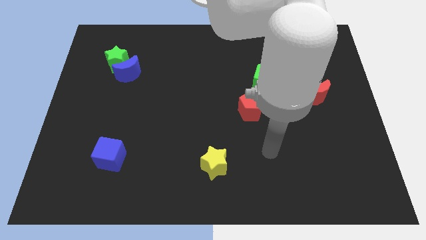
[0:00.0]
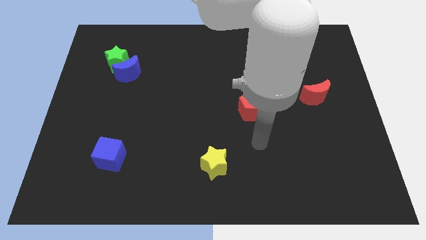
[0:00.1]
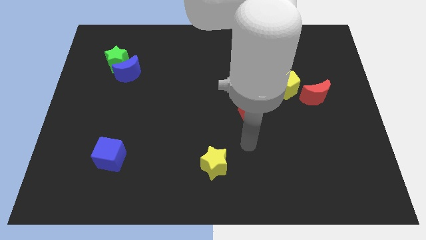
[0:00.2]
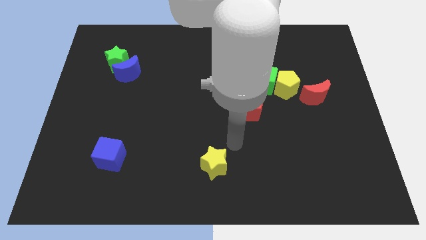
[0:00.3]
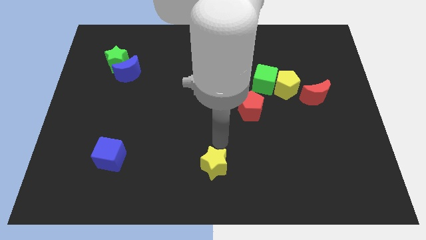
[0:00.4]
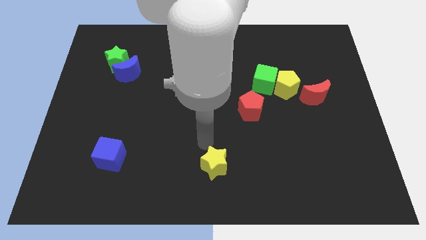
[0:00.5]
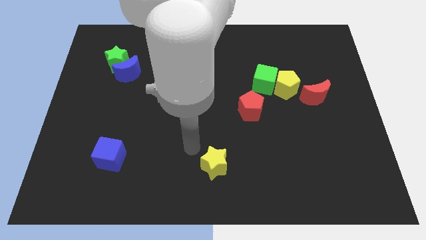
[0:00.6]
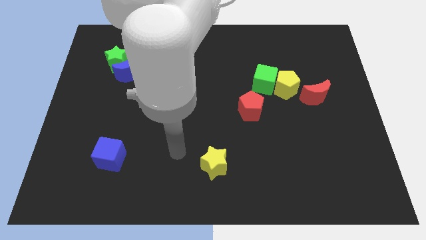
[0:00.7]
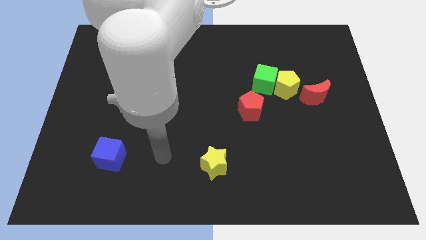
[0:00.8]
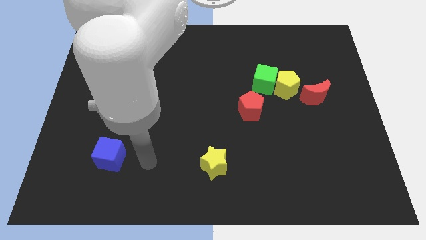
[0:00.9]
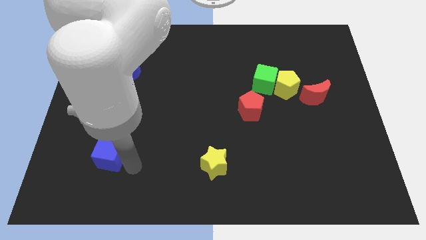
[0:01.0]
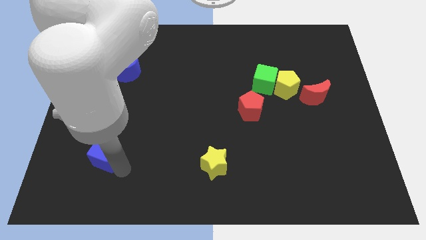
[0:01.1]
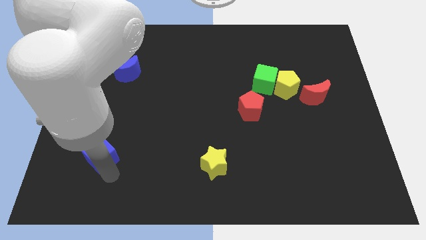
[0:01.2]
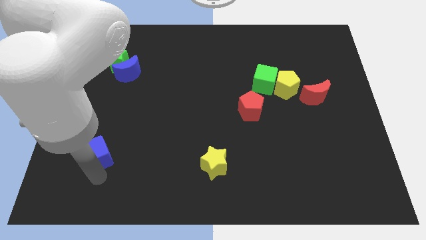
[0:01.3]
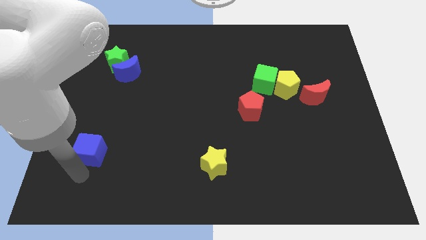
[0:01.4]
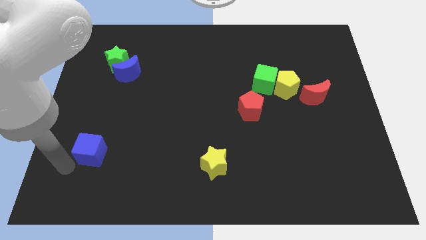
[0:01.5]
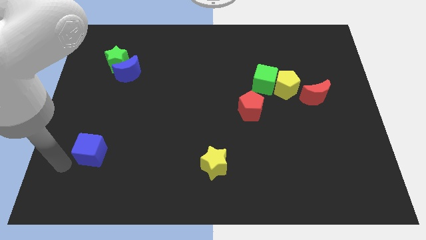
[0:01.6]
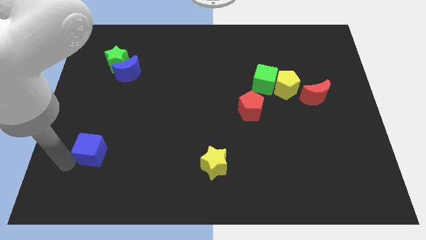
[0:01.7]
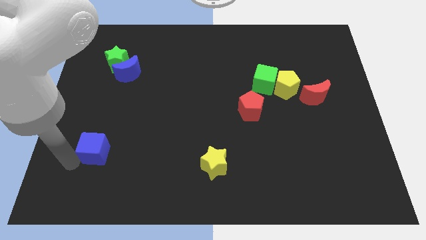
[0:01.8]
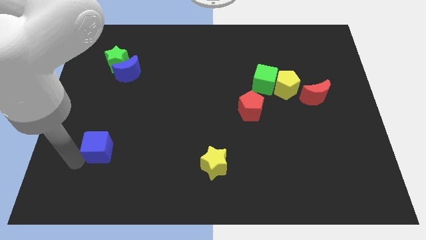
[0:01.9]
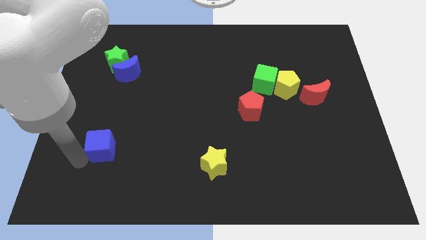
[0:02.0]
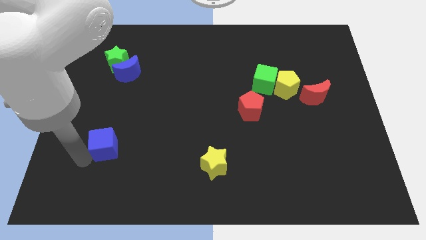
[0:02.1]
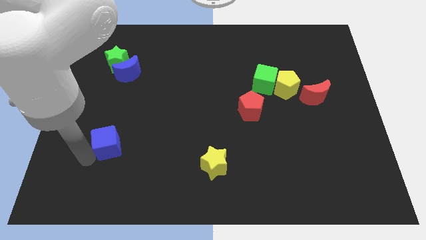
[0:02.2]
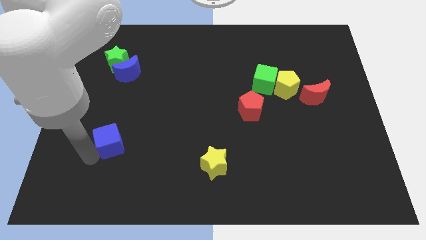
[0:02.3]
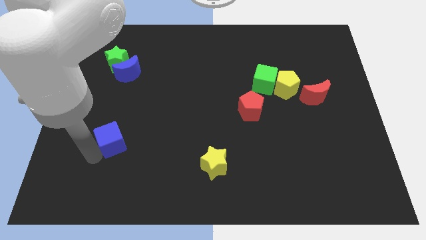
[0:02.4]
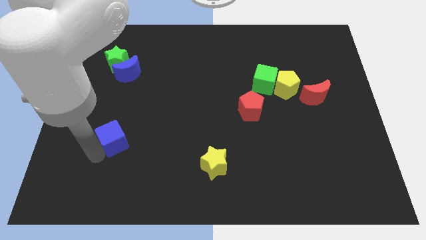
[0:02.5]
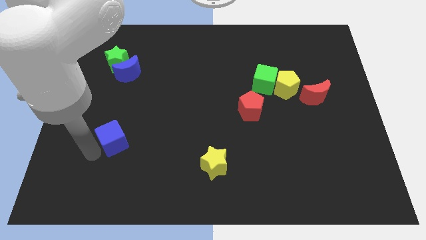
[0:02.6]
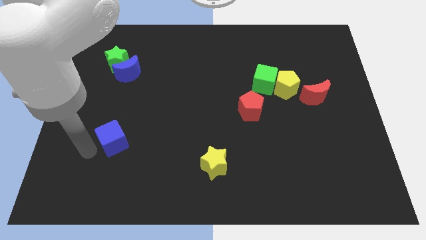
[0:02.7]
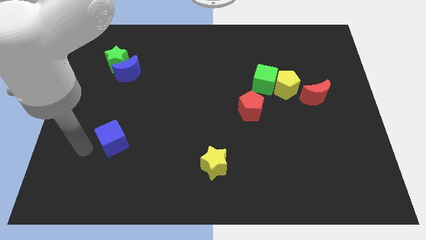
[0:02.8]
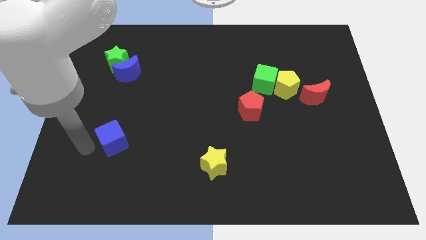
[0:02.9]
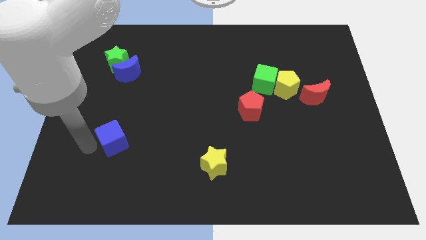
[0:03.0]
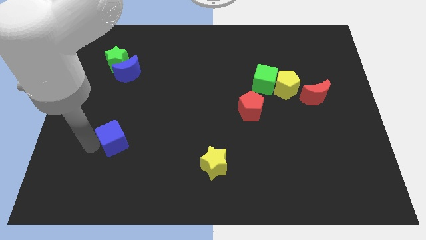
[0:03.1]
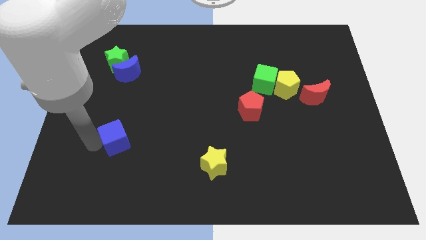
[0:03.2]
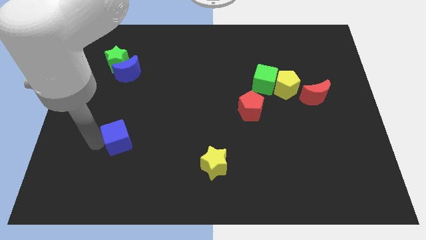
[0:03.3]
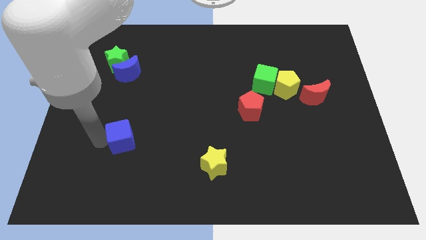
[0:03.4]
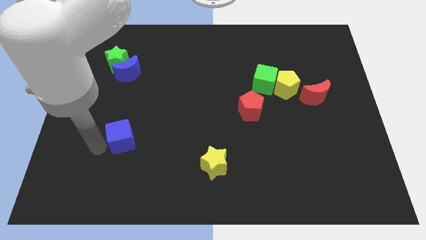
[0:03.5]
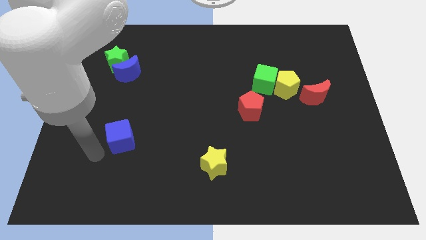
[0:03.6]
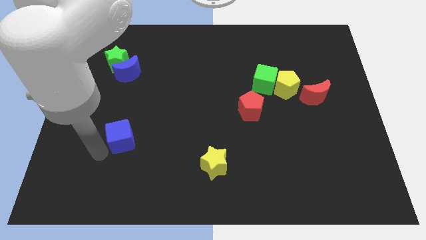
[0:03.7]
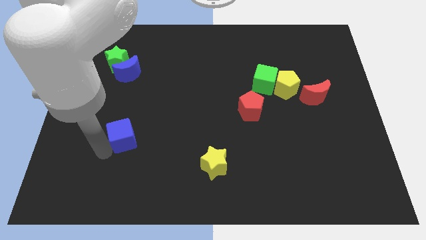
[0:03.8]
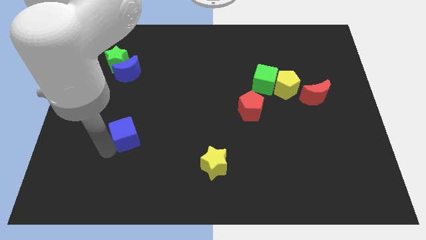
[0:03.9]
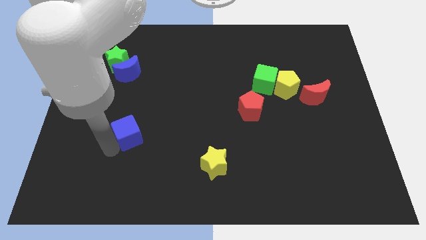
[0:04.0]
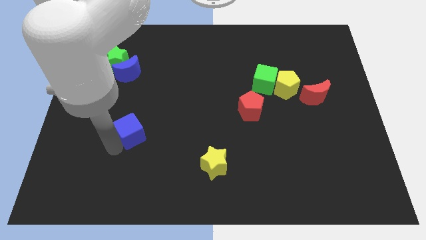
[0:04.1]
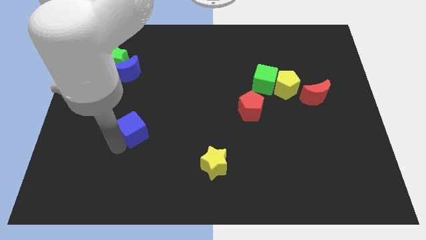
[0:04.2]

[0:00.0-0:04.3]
move the blue cube up and to the right diagonally a bit

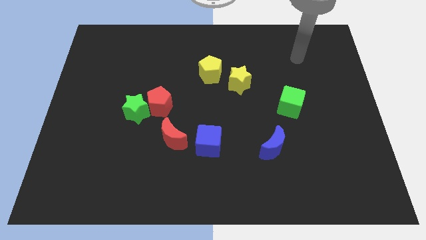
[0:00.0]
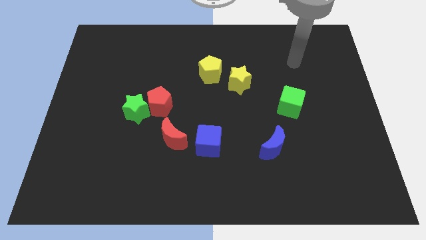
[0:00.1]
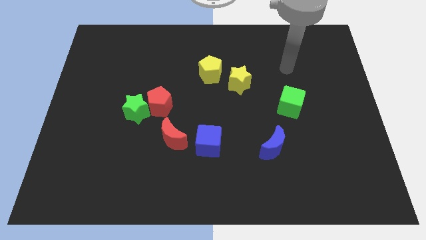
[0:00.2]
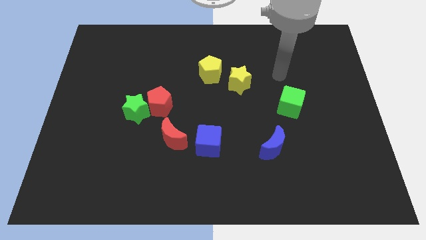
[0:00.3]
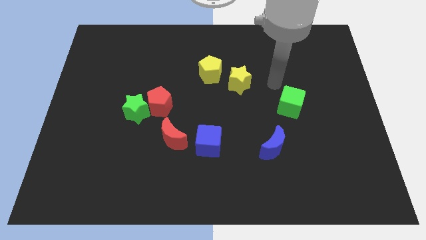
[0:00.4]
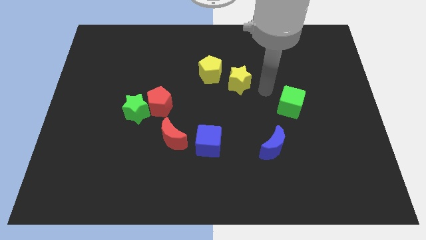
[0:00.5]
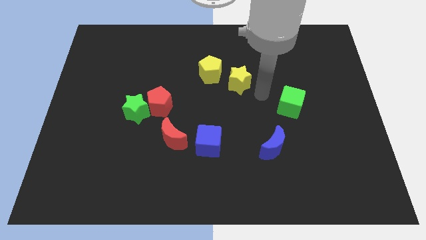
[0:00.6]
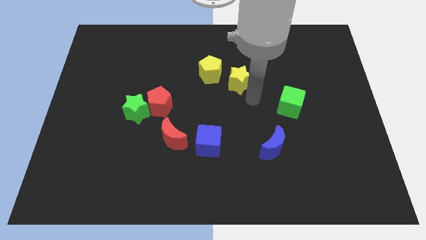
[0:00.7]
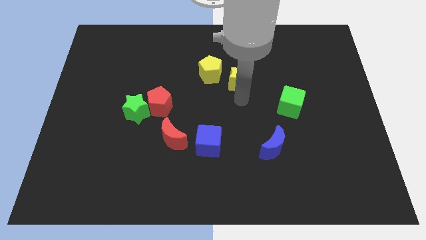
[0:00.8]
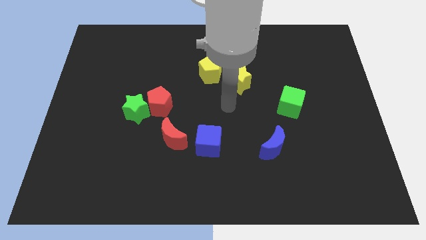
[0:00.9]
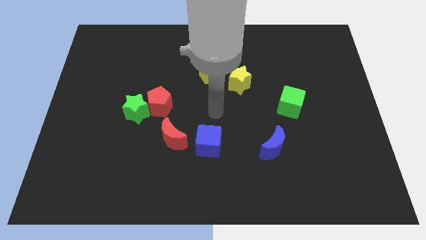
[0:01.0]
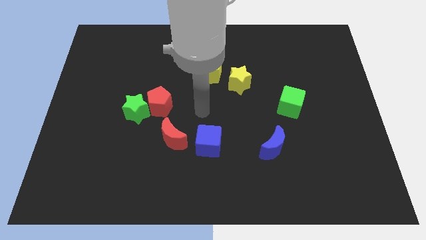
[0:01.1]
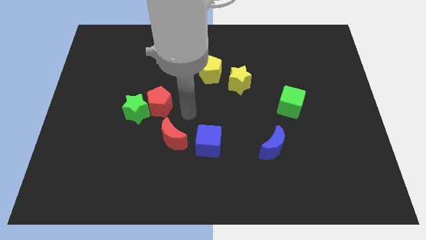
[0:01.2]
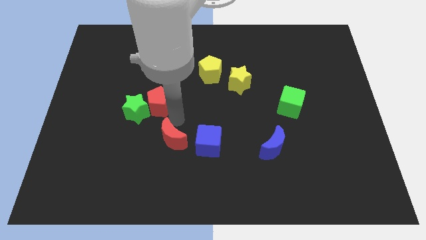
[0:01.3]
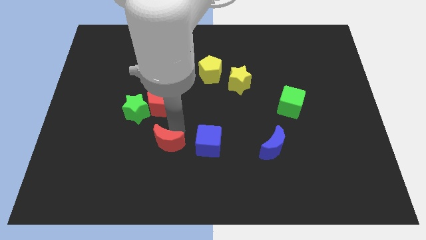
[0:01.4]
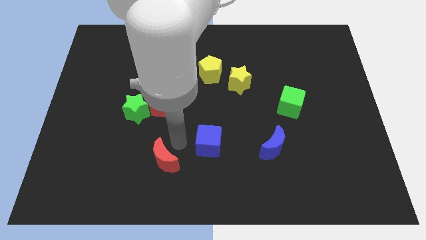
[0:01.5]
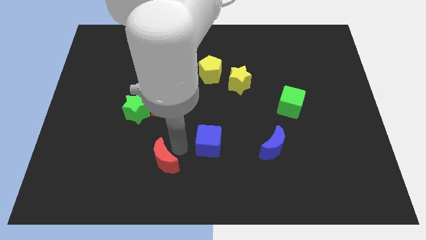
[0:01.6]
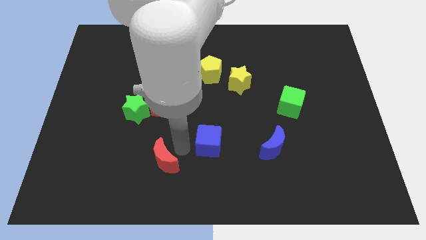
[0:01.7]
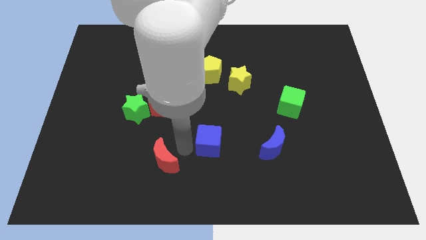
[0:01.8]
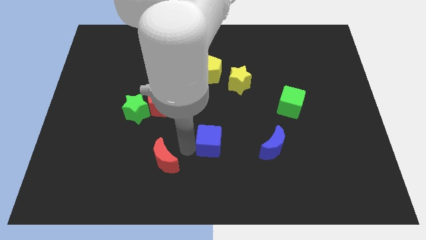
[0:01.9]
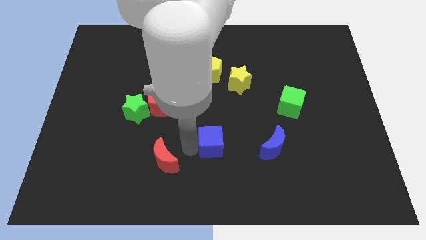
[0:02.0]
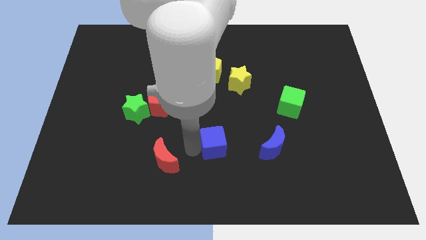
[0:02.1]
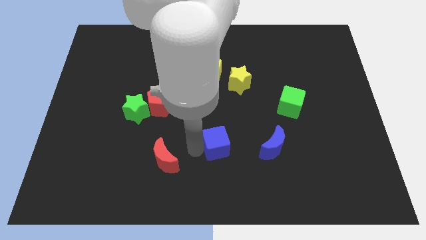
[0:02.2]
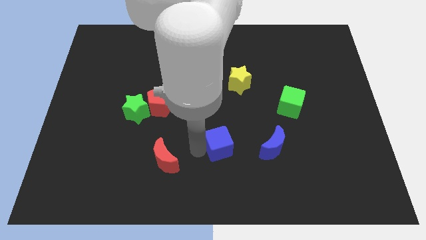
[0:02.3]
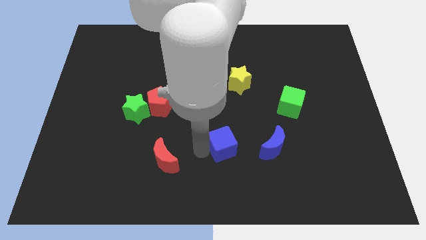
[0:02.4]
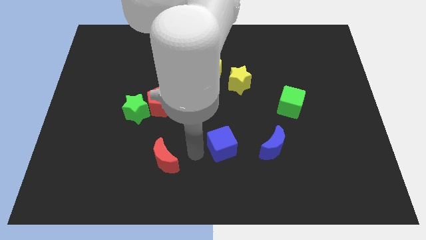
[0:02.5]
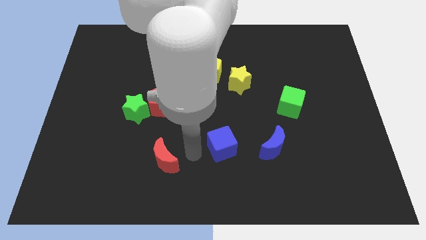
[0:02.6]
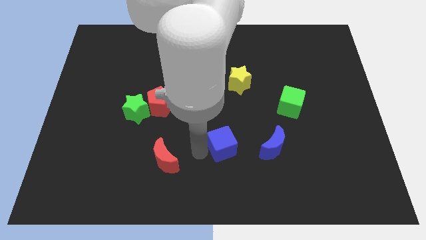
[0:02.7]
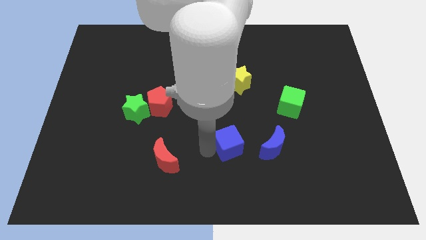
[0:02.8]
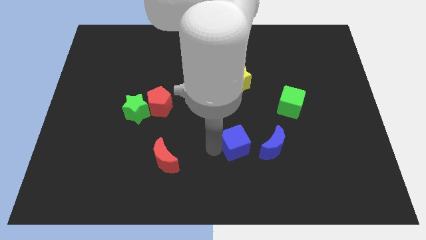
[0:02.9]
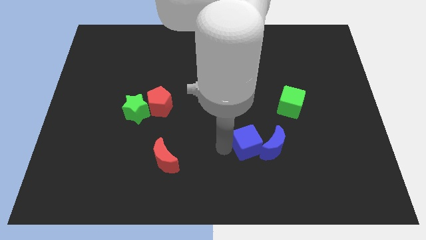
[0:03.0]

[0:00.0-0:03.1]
move the blue cube to the right a little

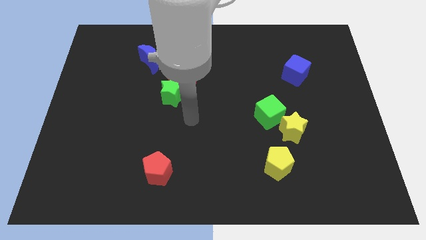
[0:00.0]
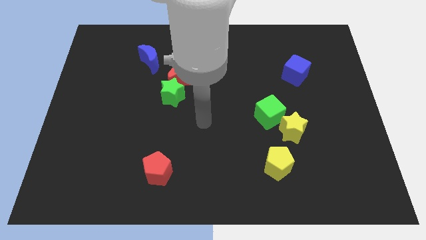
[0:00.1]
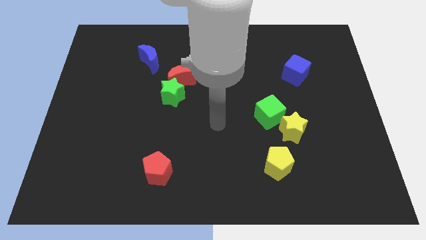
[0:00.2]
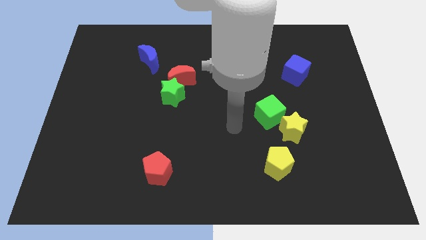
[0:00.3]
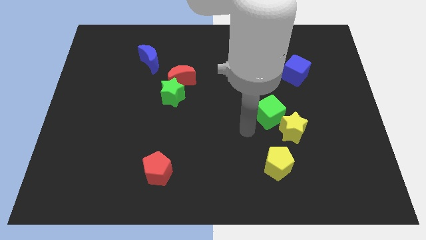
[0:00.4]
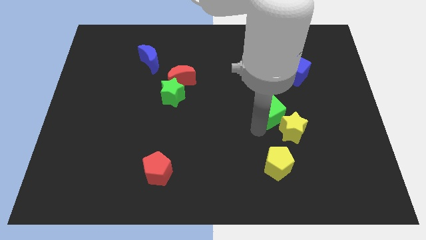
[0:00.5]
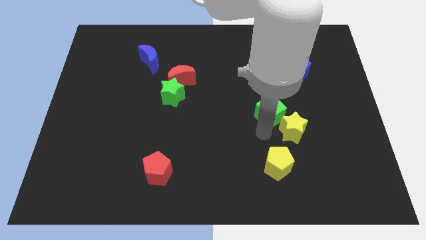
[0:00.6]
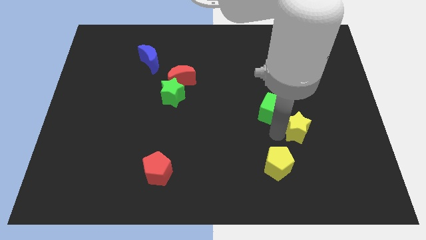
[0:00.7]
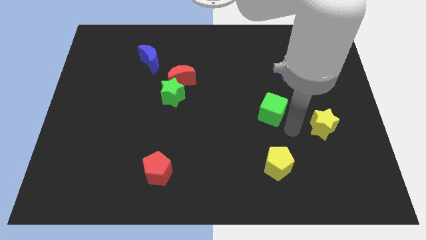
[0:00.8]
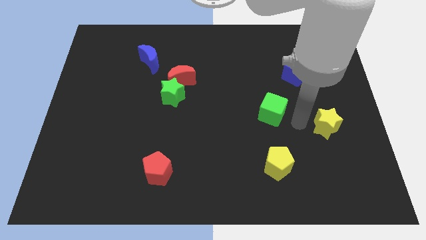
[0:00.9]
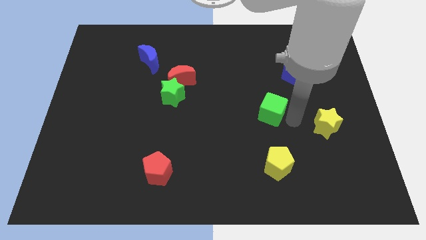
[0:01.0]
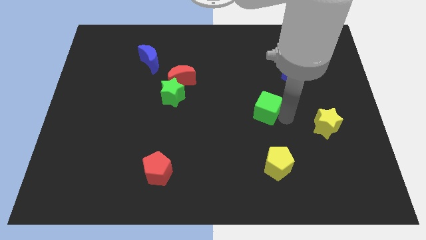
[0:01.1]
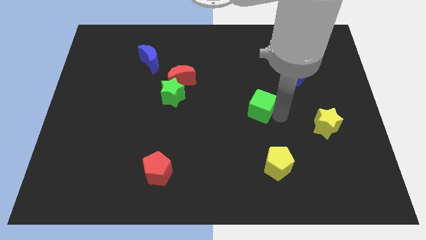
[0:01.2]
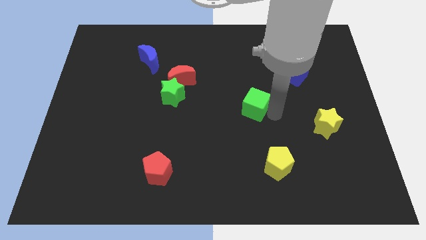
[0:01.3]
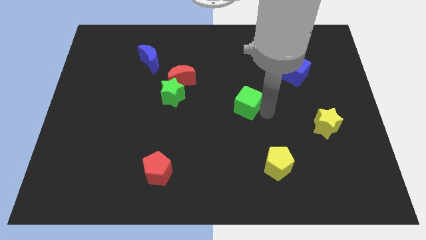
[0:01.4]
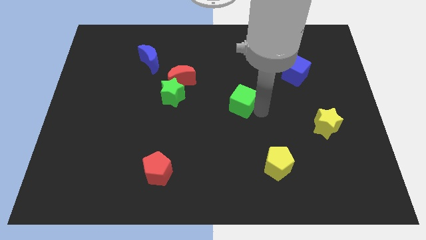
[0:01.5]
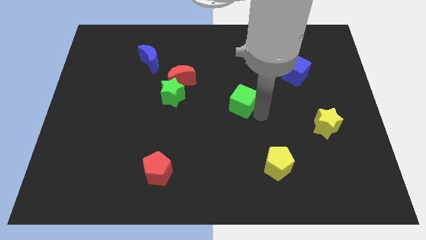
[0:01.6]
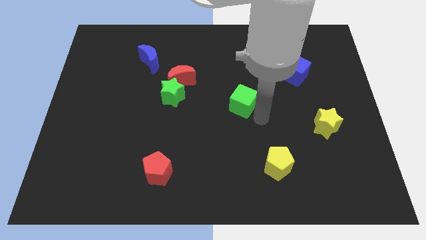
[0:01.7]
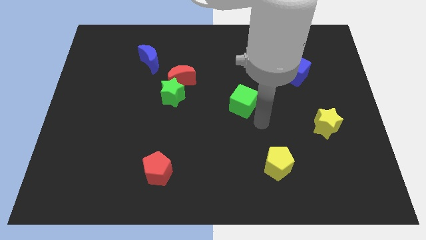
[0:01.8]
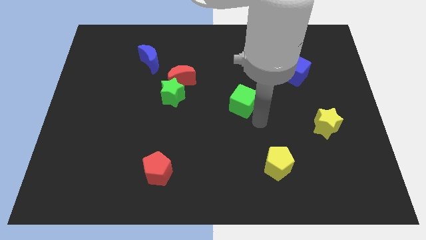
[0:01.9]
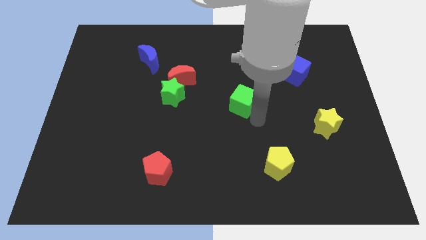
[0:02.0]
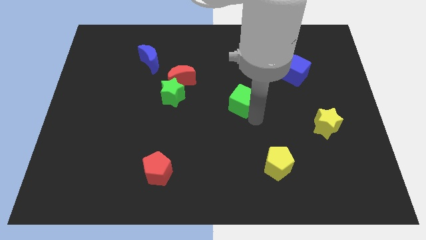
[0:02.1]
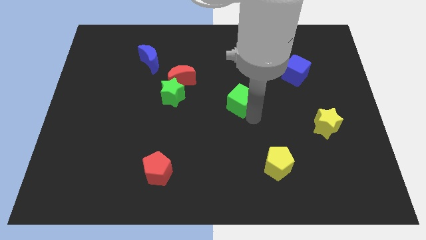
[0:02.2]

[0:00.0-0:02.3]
slightly push the green cube upwards and left diagonally
